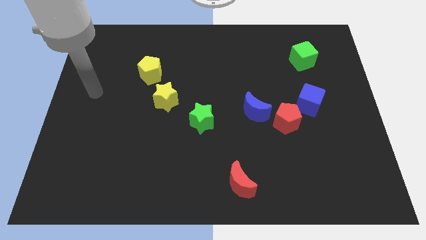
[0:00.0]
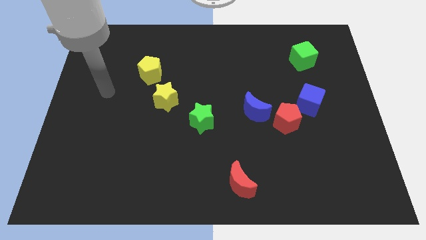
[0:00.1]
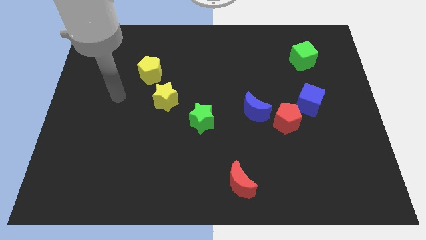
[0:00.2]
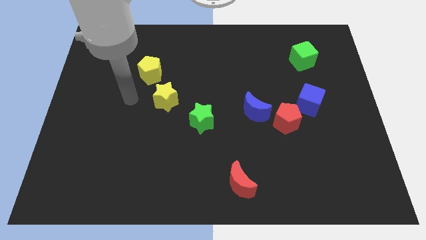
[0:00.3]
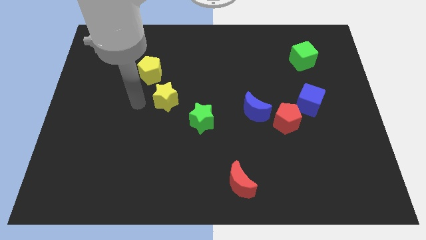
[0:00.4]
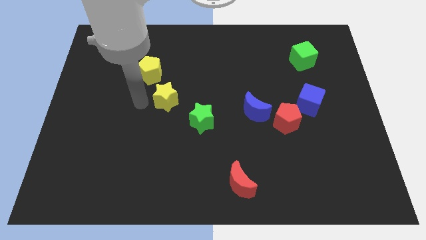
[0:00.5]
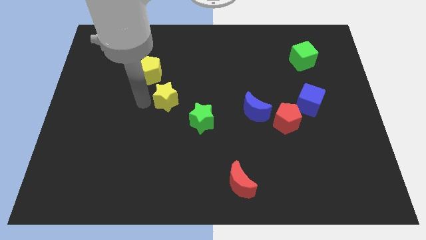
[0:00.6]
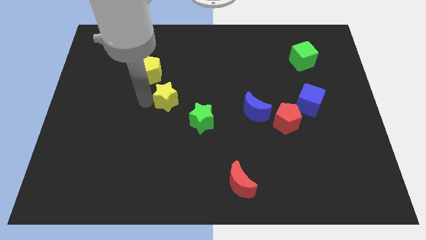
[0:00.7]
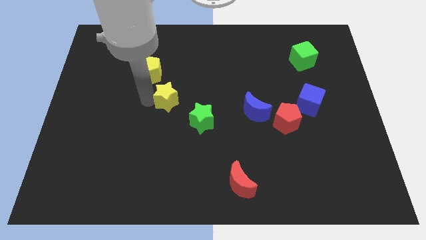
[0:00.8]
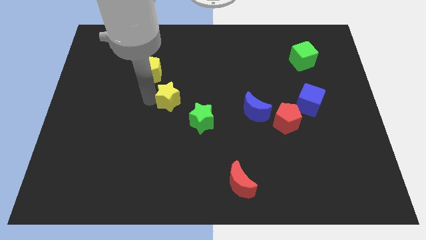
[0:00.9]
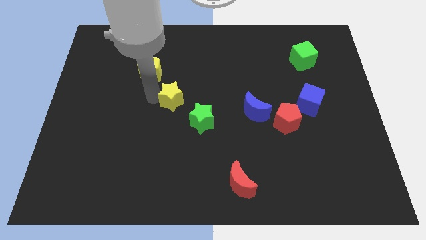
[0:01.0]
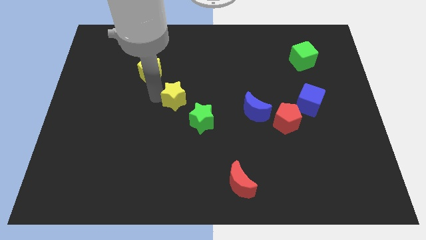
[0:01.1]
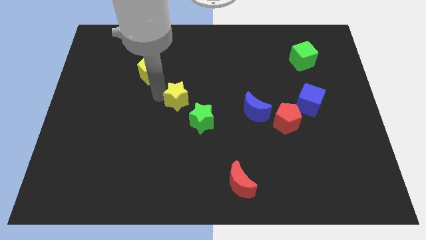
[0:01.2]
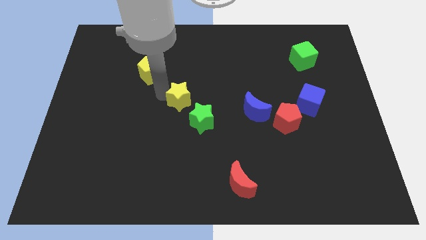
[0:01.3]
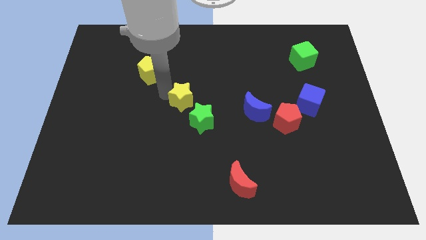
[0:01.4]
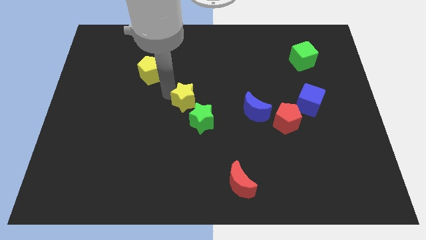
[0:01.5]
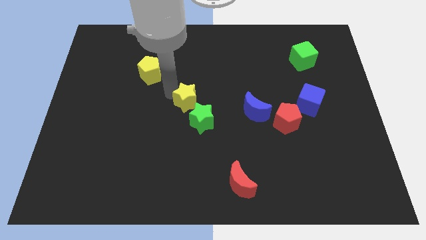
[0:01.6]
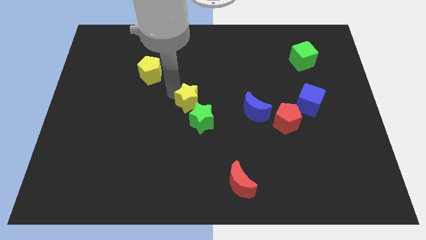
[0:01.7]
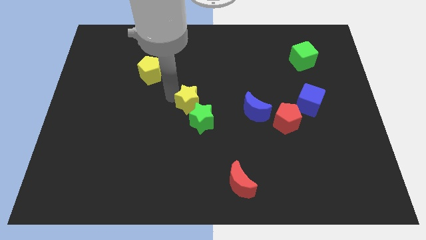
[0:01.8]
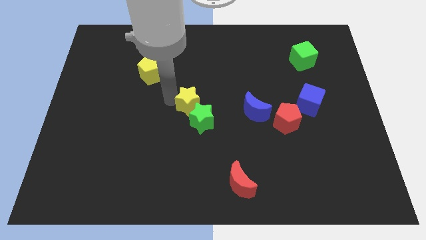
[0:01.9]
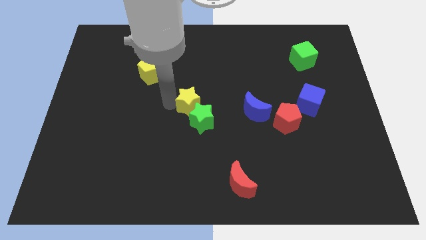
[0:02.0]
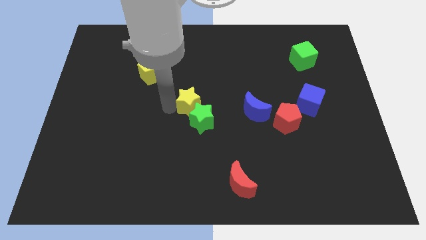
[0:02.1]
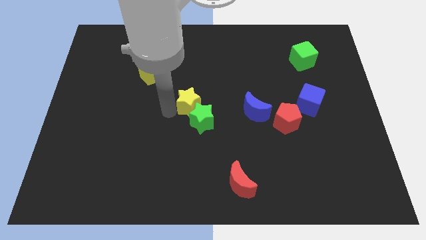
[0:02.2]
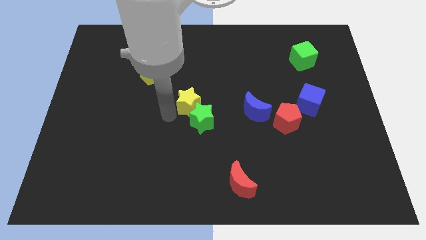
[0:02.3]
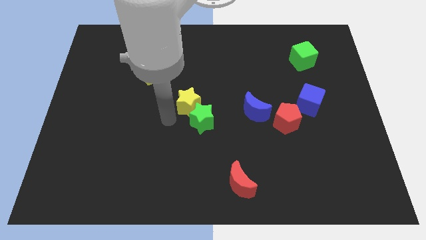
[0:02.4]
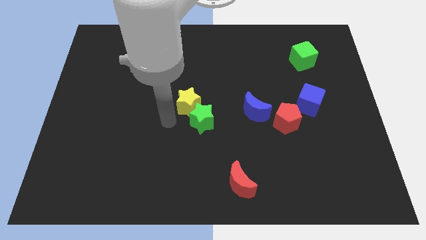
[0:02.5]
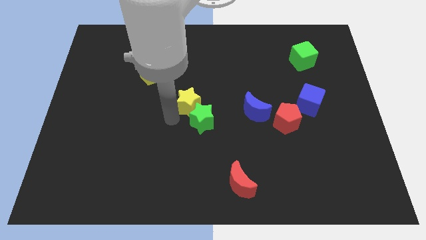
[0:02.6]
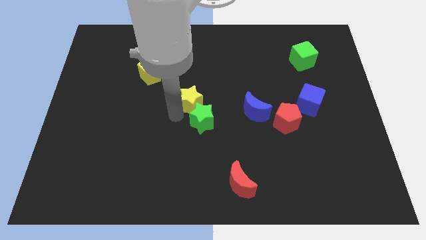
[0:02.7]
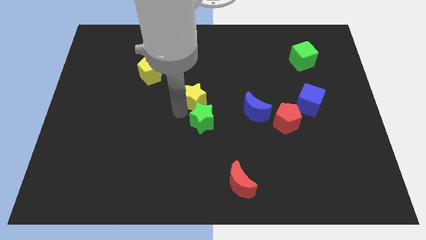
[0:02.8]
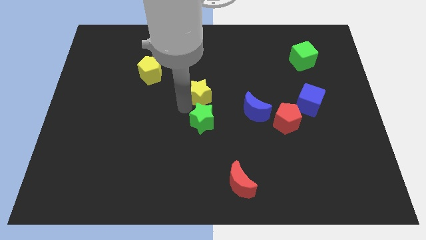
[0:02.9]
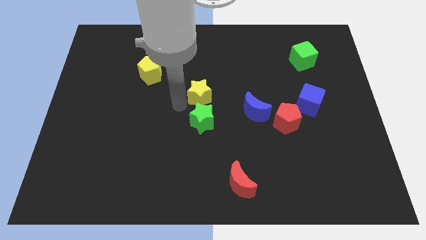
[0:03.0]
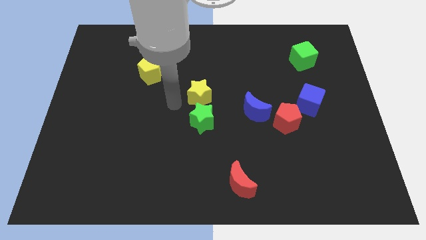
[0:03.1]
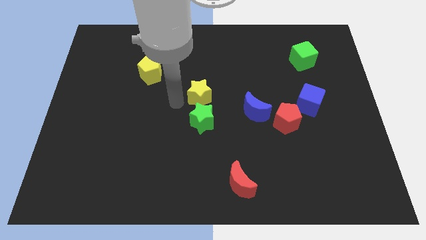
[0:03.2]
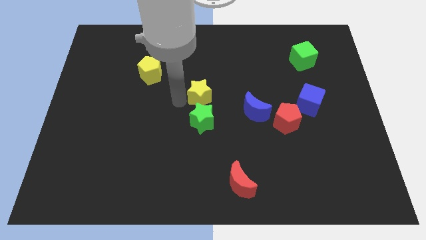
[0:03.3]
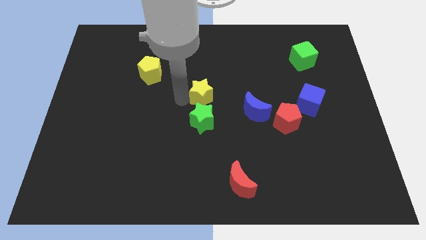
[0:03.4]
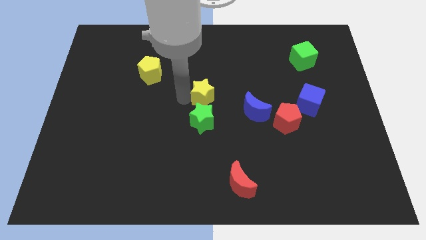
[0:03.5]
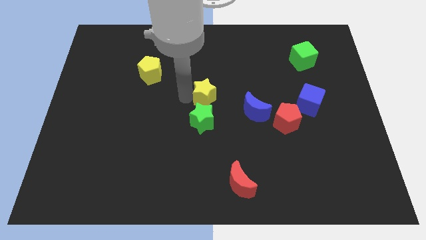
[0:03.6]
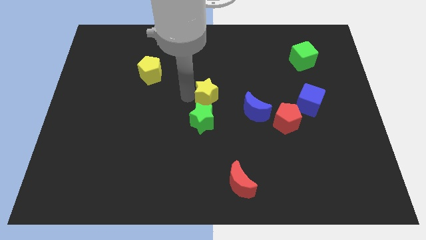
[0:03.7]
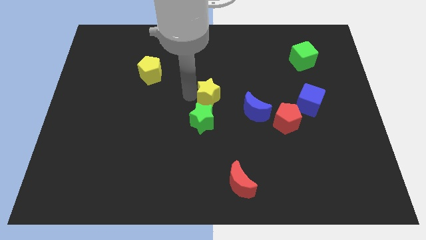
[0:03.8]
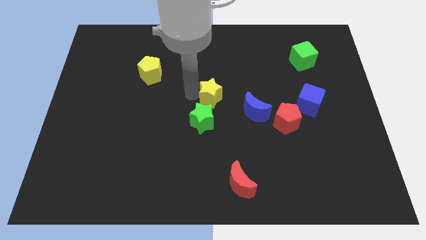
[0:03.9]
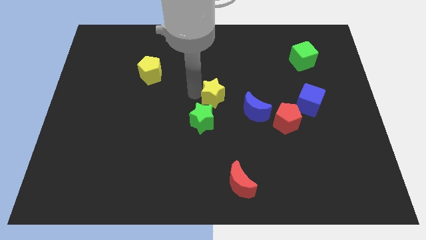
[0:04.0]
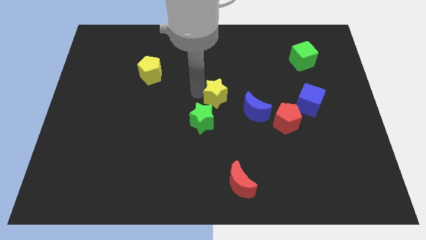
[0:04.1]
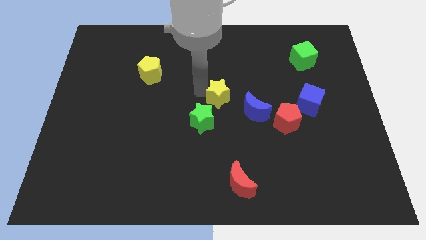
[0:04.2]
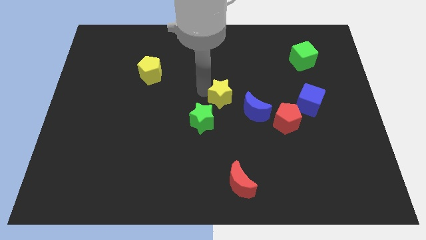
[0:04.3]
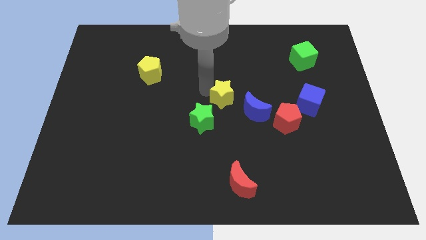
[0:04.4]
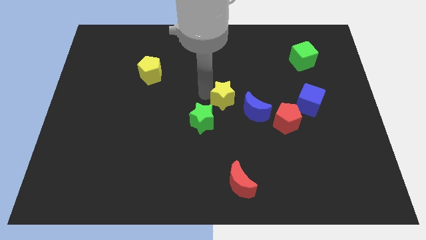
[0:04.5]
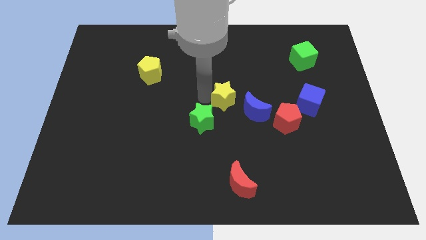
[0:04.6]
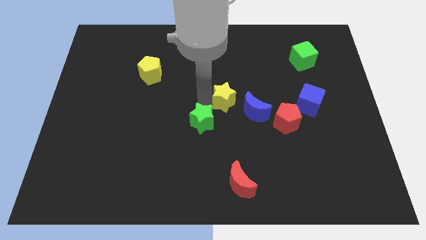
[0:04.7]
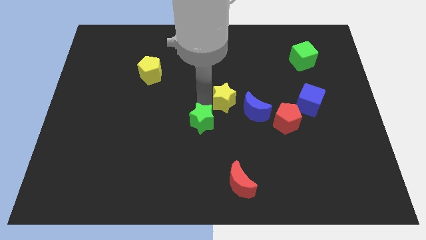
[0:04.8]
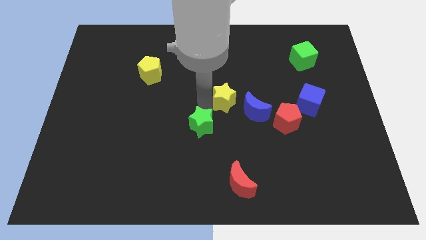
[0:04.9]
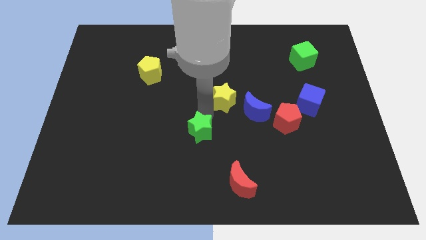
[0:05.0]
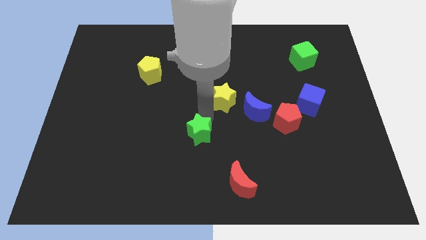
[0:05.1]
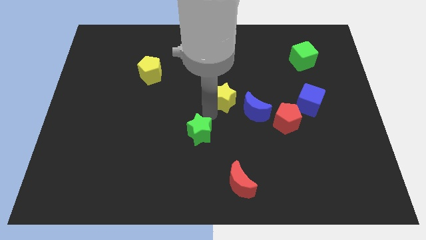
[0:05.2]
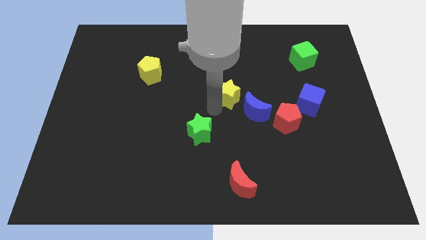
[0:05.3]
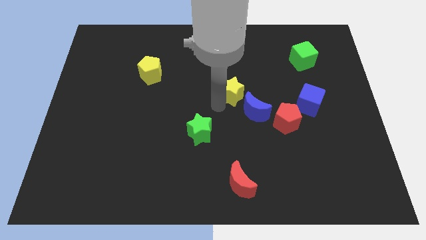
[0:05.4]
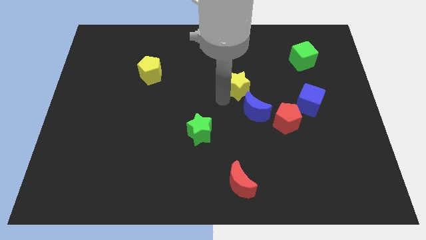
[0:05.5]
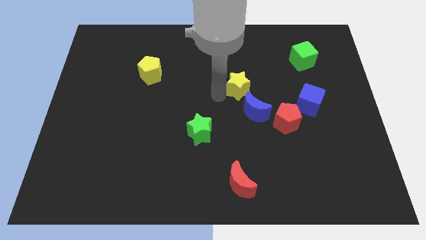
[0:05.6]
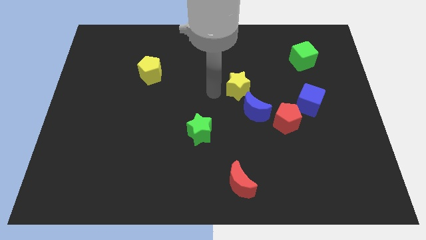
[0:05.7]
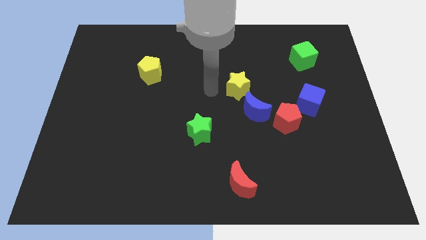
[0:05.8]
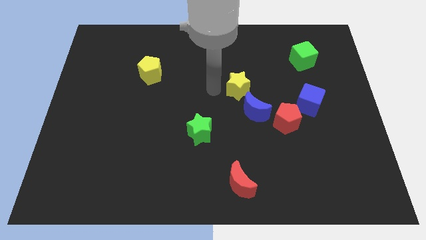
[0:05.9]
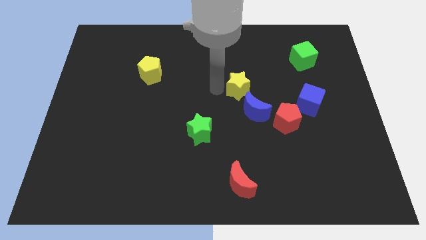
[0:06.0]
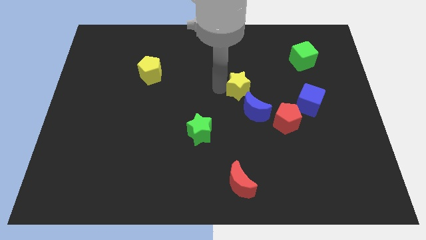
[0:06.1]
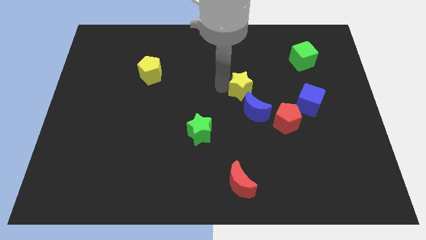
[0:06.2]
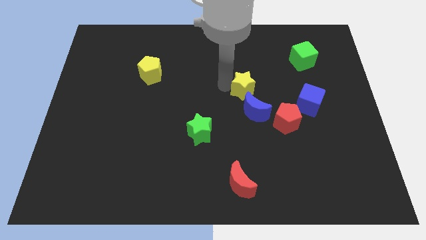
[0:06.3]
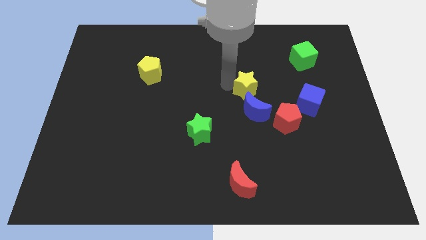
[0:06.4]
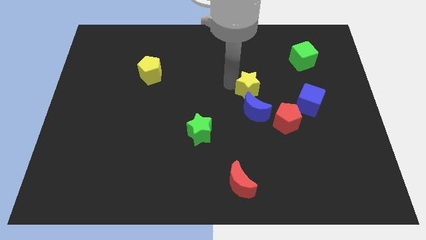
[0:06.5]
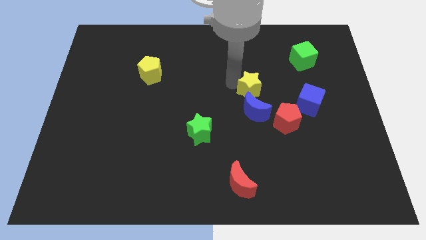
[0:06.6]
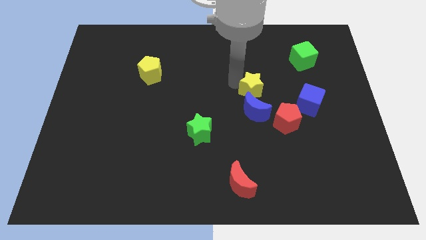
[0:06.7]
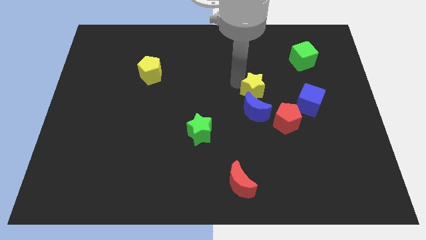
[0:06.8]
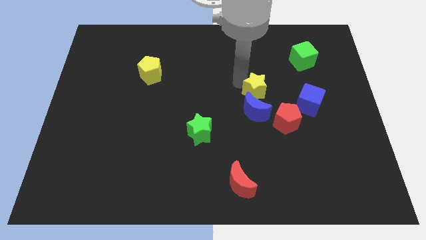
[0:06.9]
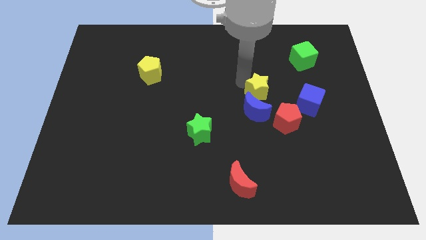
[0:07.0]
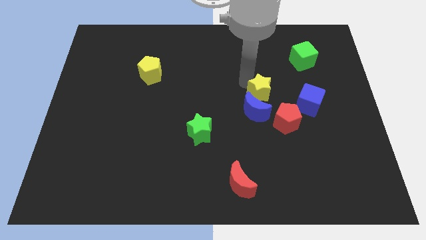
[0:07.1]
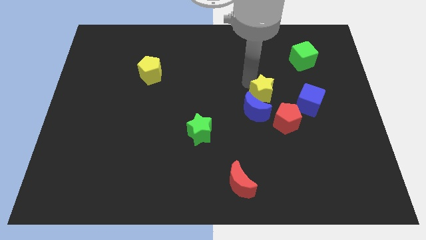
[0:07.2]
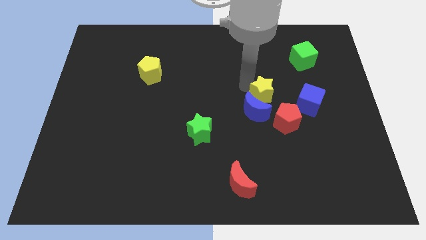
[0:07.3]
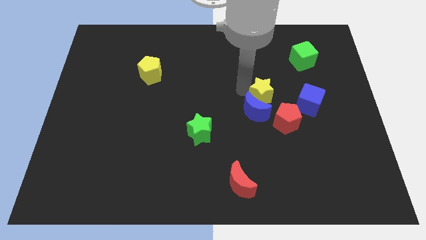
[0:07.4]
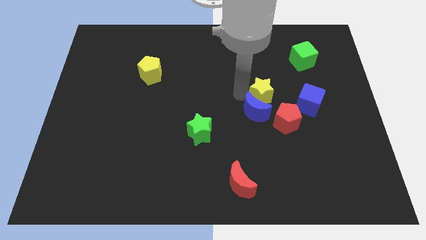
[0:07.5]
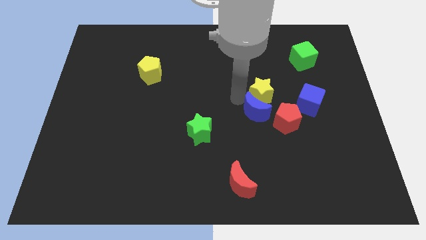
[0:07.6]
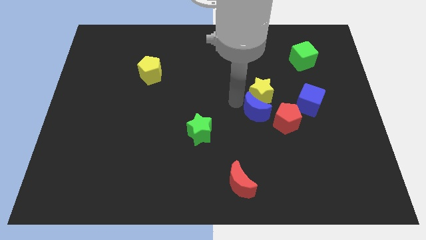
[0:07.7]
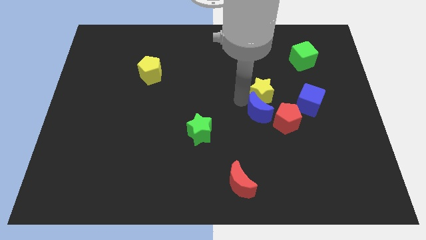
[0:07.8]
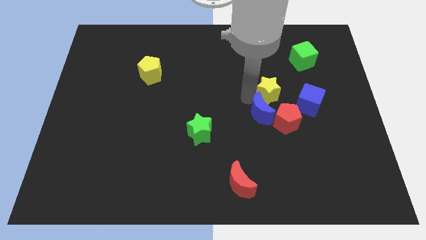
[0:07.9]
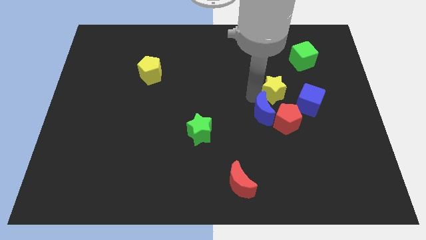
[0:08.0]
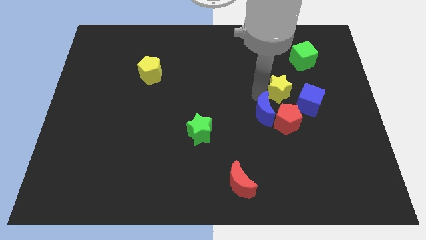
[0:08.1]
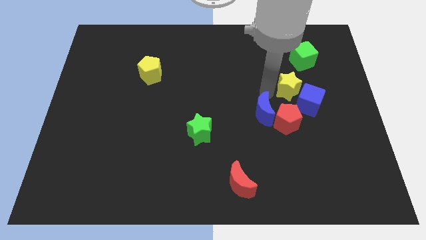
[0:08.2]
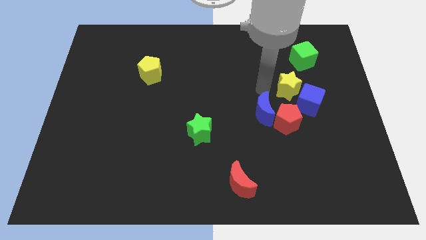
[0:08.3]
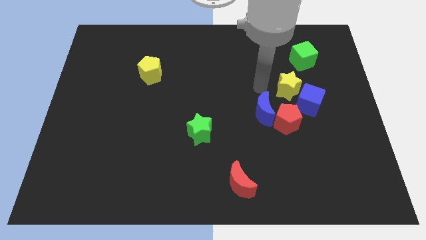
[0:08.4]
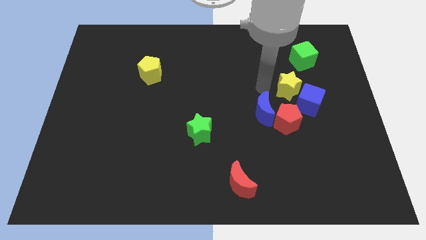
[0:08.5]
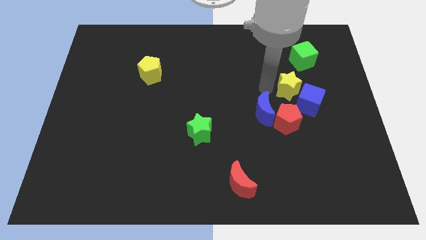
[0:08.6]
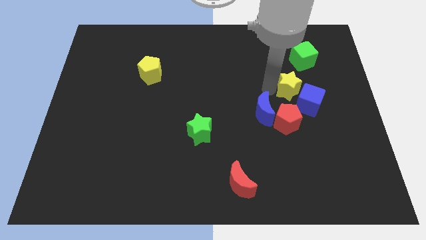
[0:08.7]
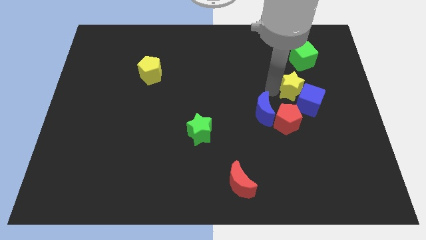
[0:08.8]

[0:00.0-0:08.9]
move the yellow star to the bottom of the green cube
